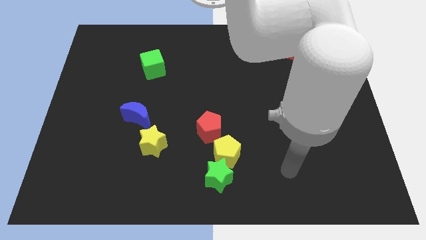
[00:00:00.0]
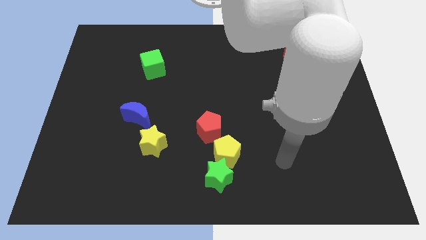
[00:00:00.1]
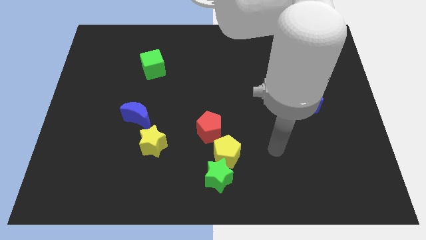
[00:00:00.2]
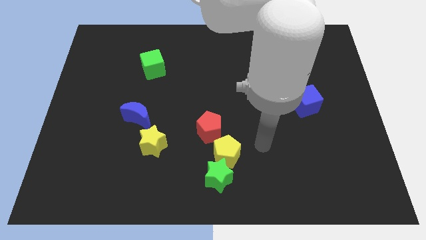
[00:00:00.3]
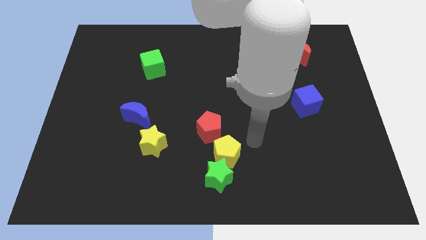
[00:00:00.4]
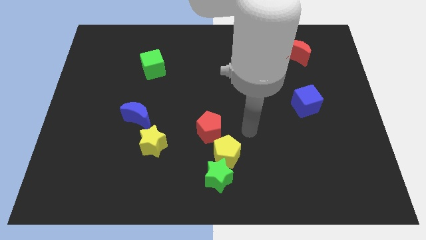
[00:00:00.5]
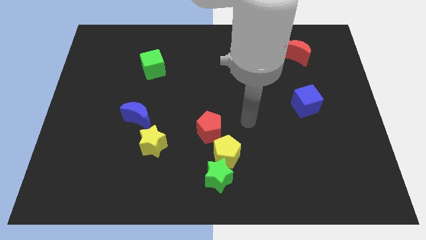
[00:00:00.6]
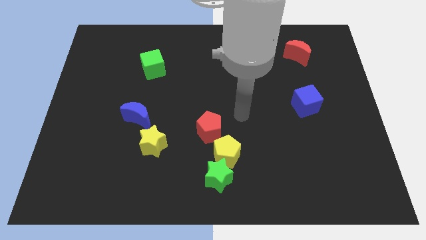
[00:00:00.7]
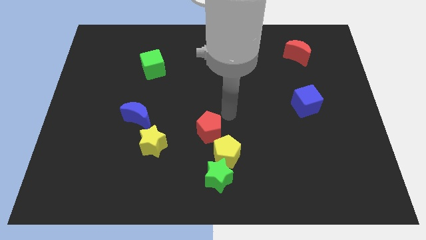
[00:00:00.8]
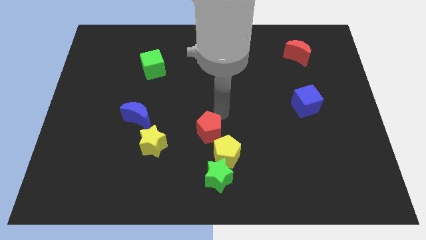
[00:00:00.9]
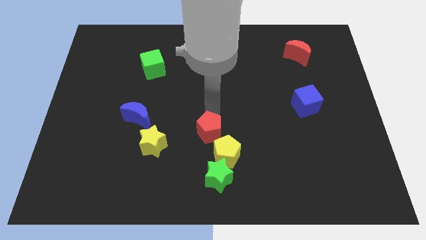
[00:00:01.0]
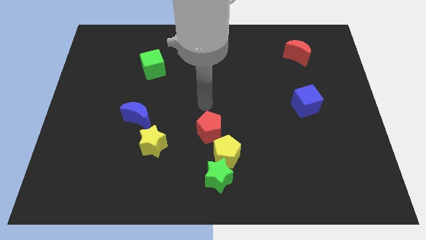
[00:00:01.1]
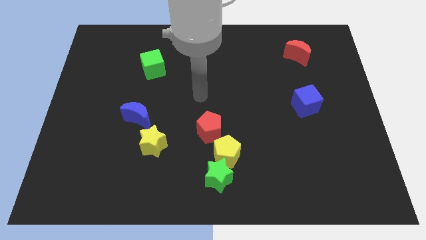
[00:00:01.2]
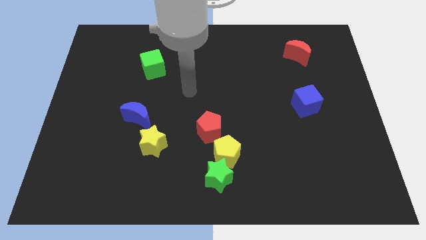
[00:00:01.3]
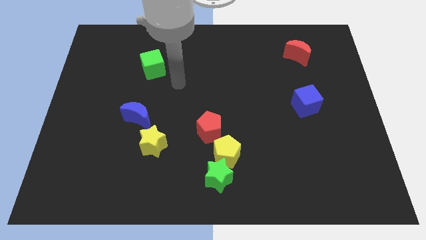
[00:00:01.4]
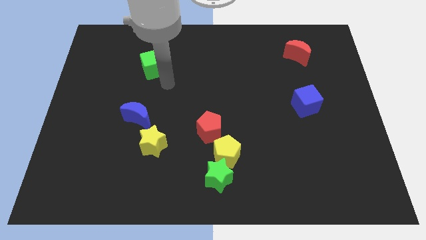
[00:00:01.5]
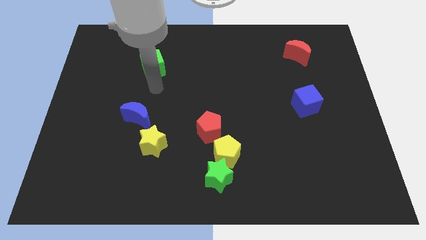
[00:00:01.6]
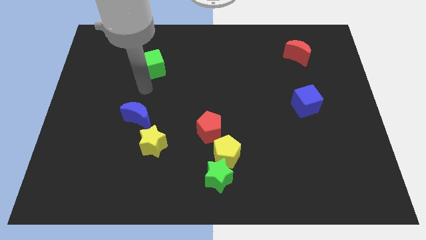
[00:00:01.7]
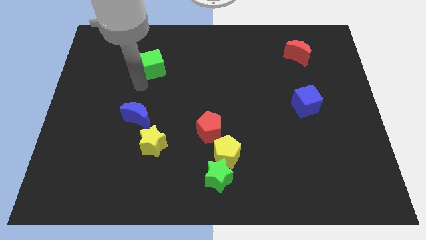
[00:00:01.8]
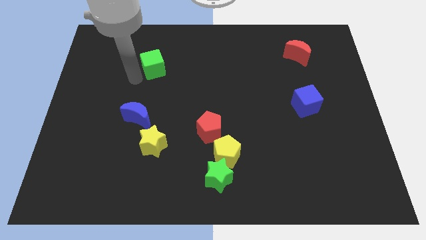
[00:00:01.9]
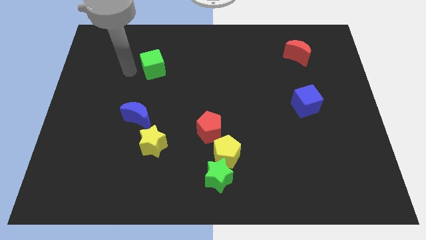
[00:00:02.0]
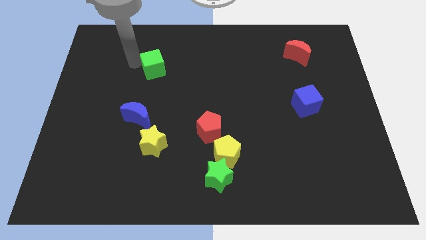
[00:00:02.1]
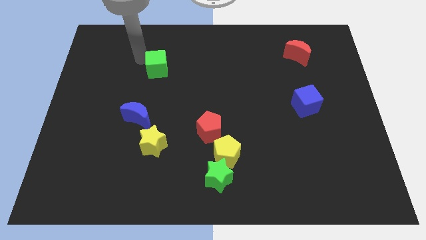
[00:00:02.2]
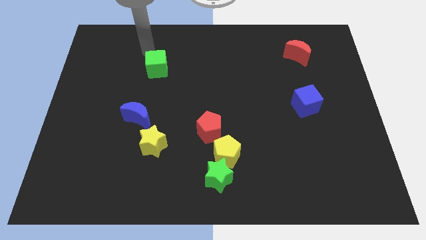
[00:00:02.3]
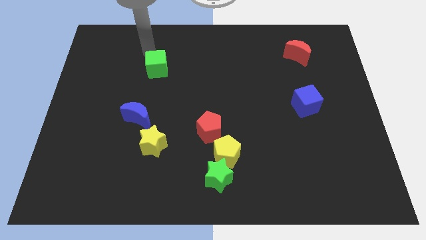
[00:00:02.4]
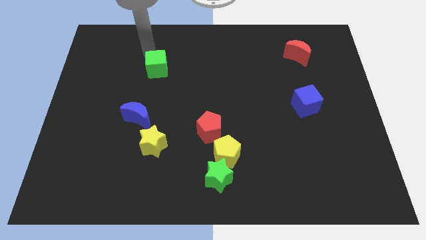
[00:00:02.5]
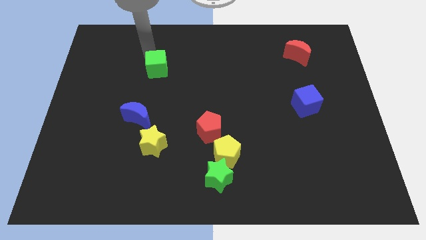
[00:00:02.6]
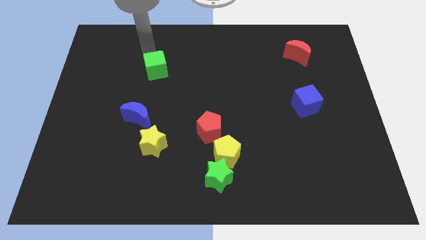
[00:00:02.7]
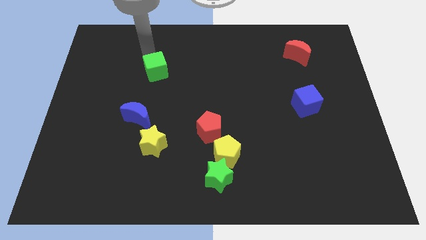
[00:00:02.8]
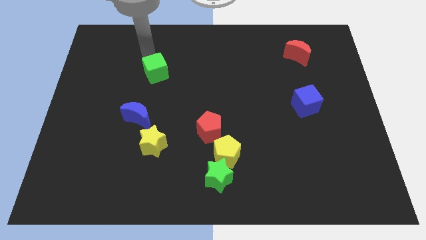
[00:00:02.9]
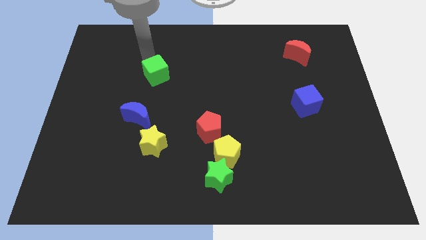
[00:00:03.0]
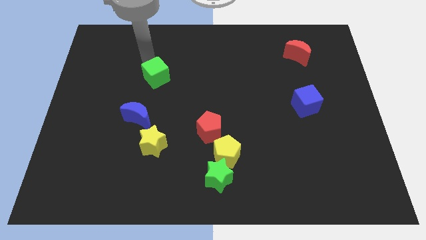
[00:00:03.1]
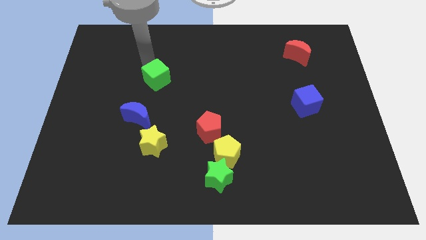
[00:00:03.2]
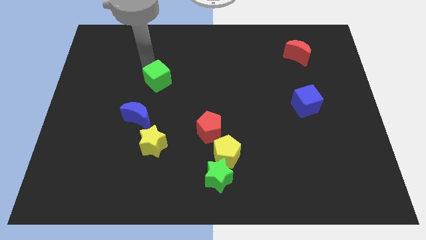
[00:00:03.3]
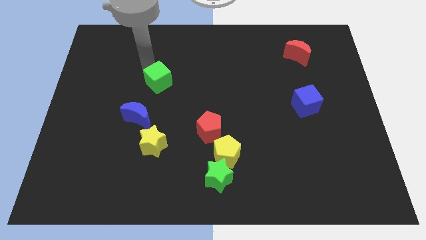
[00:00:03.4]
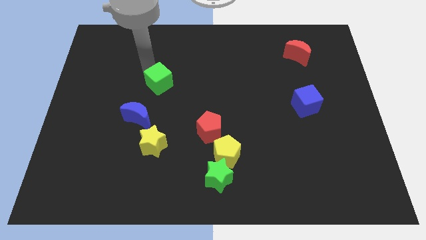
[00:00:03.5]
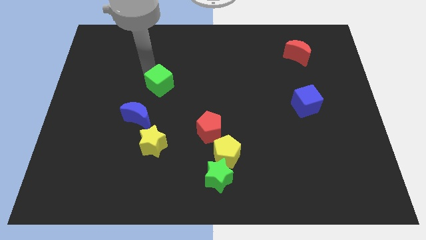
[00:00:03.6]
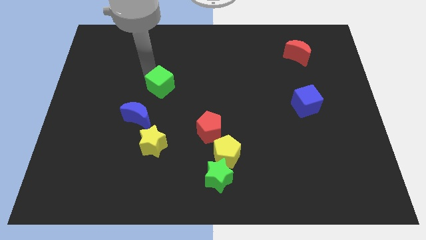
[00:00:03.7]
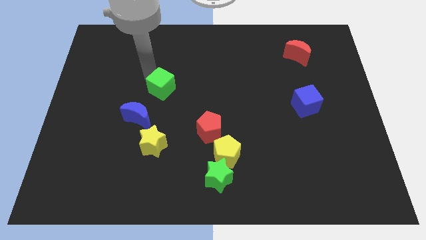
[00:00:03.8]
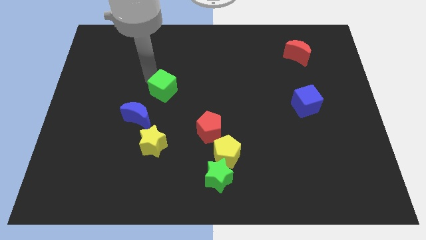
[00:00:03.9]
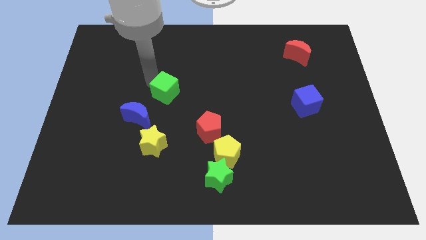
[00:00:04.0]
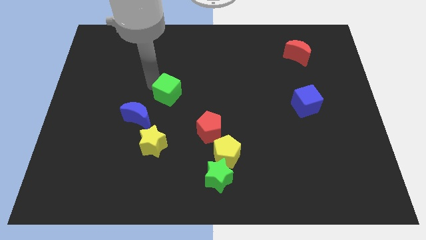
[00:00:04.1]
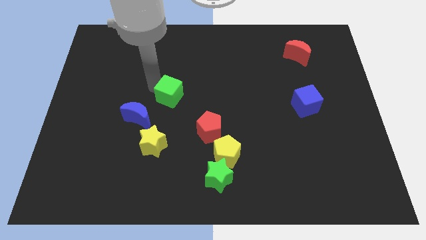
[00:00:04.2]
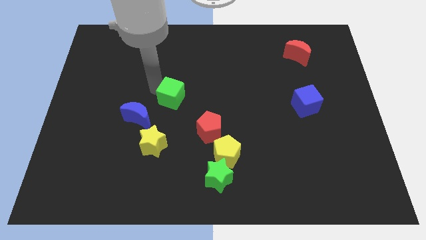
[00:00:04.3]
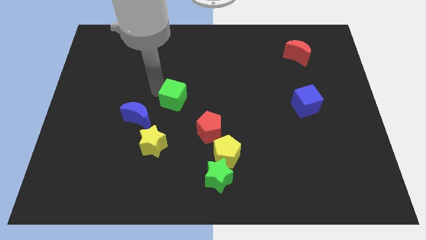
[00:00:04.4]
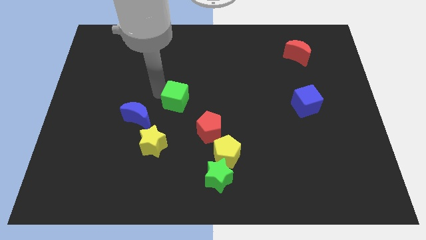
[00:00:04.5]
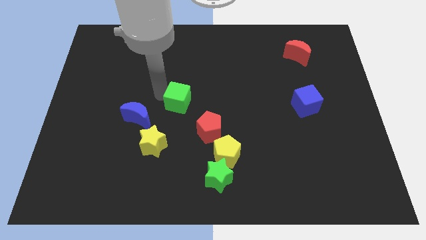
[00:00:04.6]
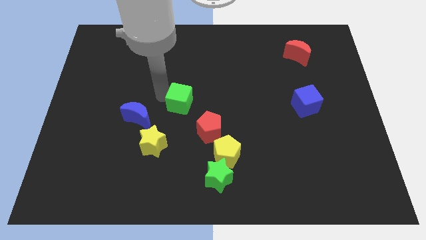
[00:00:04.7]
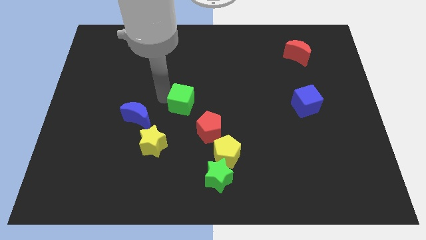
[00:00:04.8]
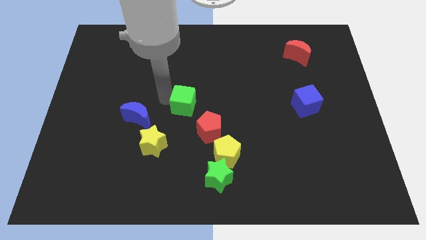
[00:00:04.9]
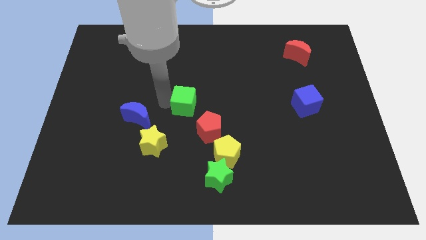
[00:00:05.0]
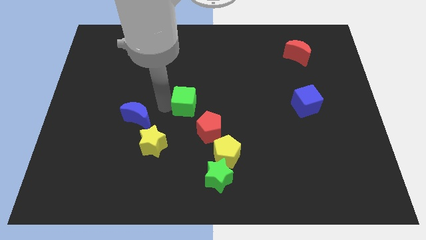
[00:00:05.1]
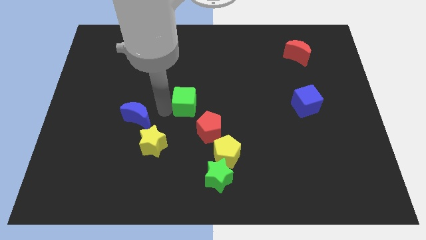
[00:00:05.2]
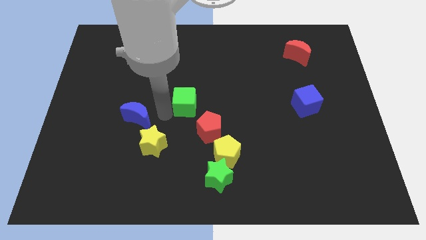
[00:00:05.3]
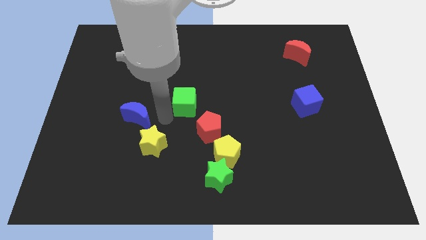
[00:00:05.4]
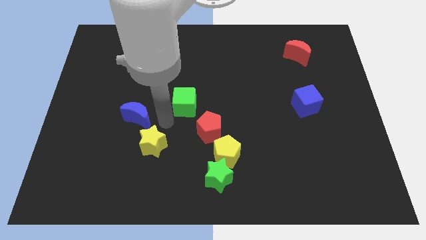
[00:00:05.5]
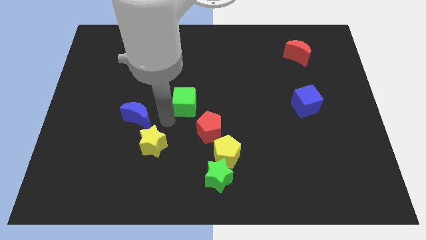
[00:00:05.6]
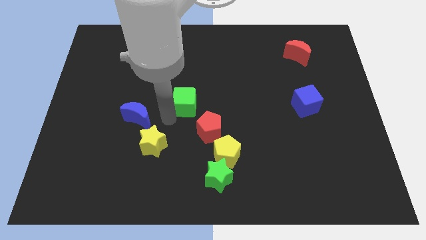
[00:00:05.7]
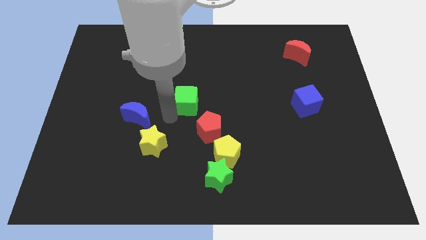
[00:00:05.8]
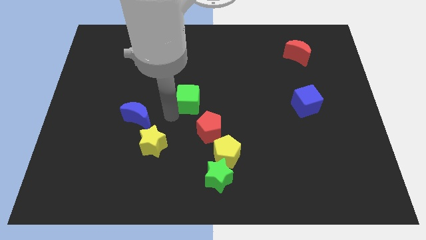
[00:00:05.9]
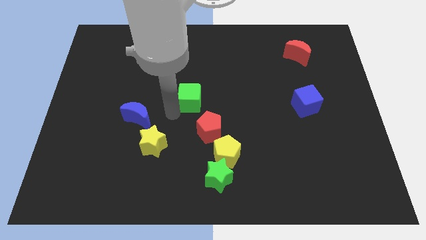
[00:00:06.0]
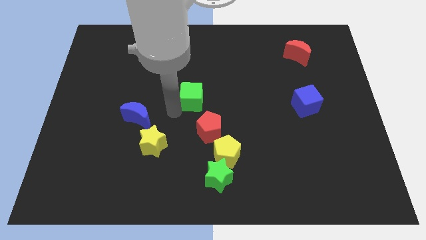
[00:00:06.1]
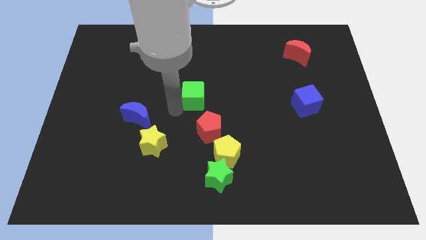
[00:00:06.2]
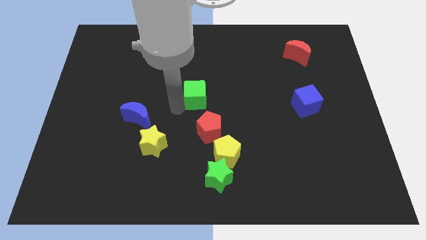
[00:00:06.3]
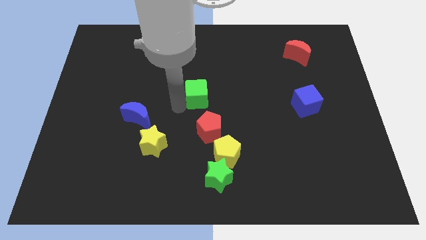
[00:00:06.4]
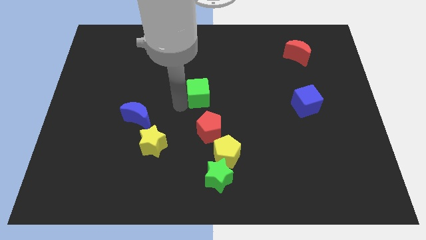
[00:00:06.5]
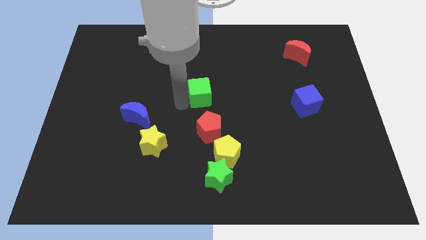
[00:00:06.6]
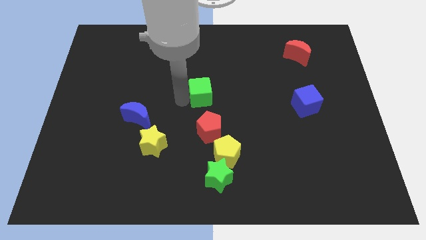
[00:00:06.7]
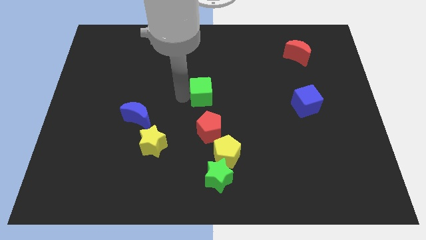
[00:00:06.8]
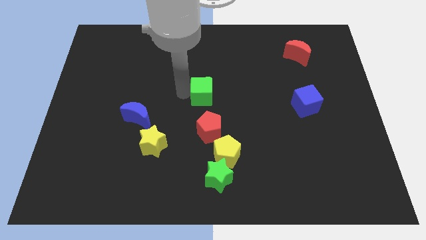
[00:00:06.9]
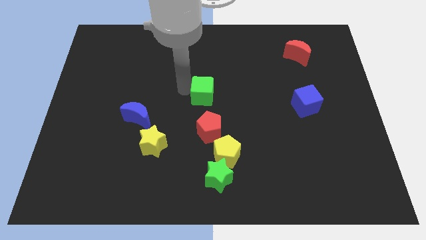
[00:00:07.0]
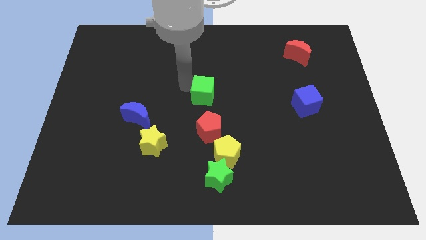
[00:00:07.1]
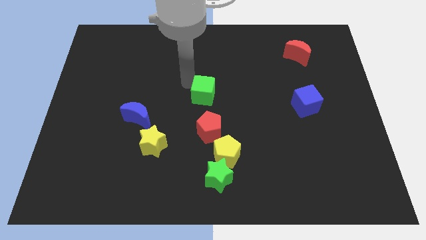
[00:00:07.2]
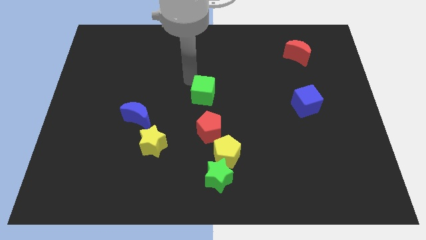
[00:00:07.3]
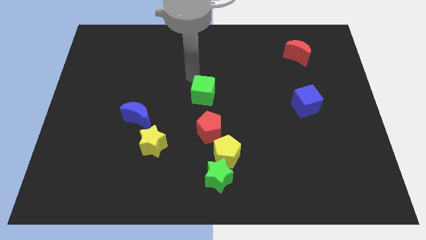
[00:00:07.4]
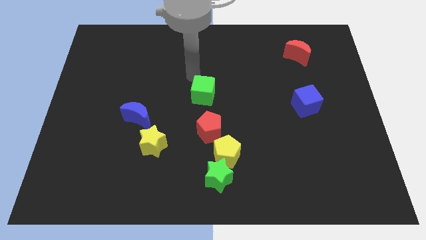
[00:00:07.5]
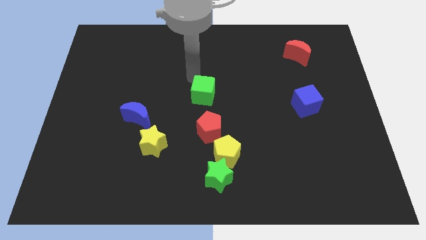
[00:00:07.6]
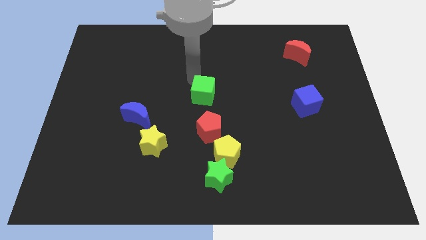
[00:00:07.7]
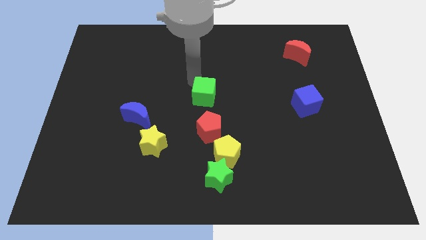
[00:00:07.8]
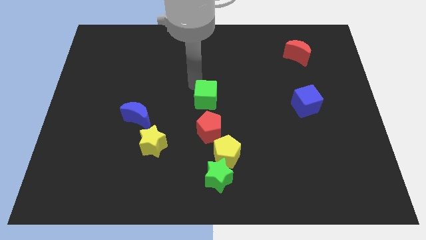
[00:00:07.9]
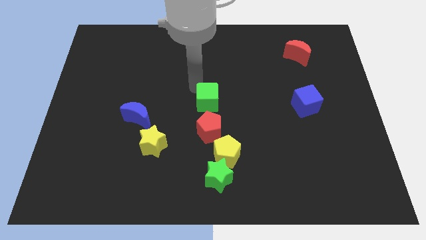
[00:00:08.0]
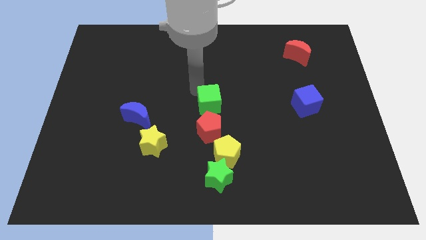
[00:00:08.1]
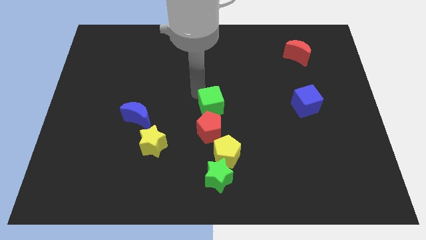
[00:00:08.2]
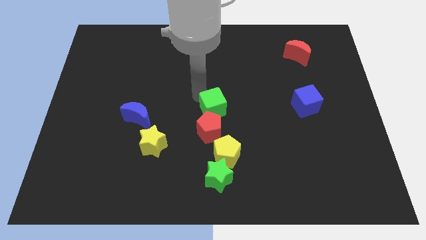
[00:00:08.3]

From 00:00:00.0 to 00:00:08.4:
push the green cube down and right diagonally
